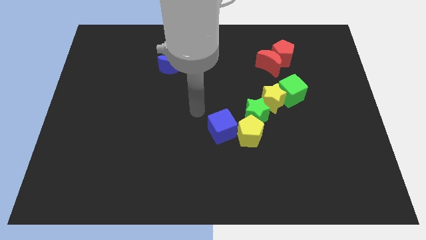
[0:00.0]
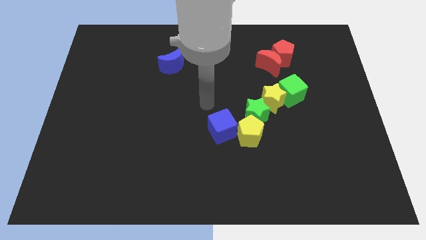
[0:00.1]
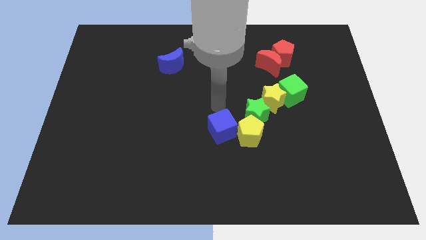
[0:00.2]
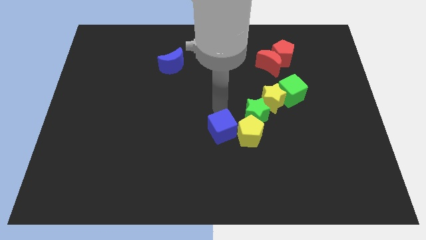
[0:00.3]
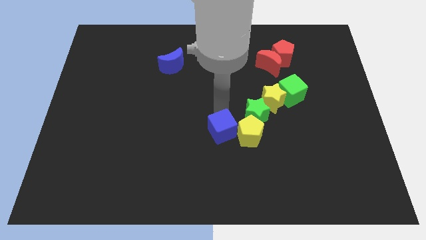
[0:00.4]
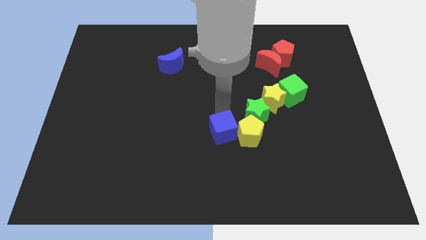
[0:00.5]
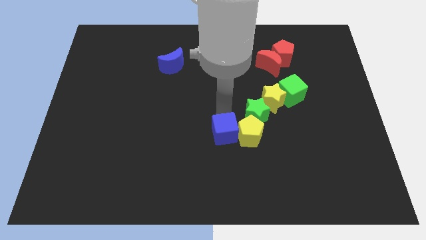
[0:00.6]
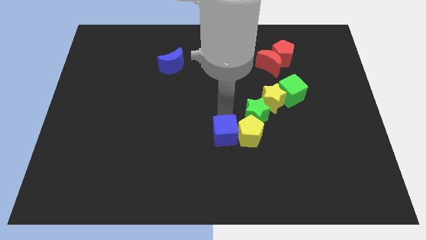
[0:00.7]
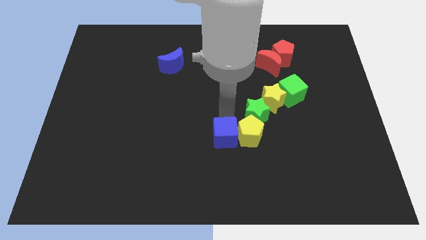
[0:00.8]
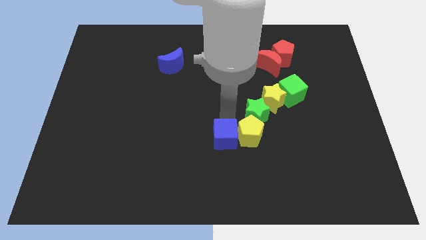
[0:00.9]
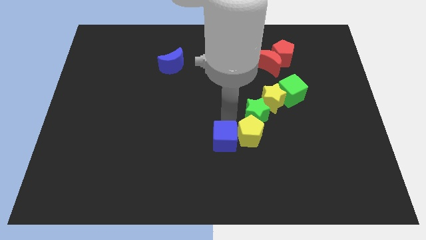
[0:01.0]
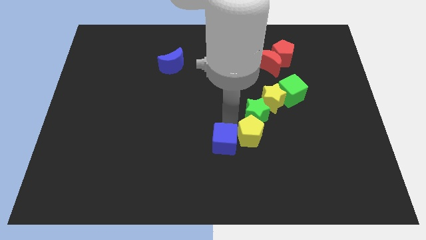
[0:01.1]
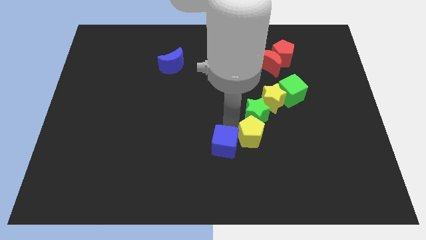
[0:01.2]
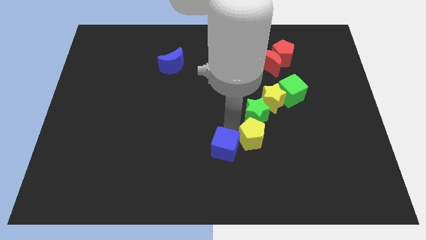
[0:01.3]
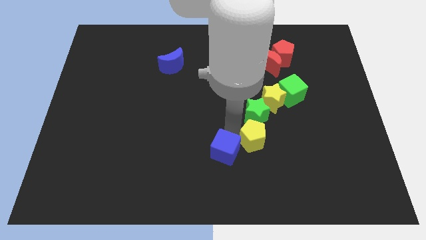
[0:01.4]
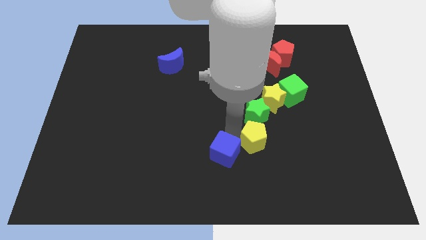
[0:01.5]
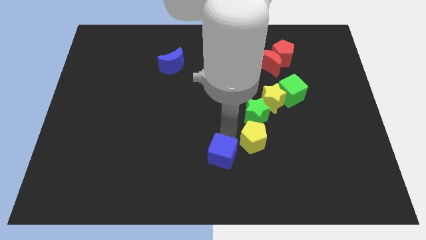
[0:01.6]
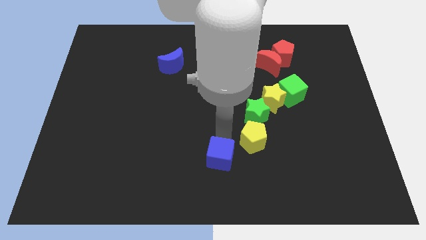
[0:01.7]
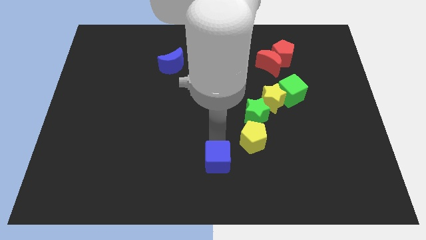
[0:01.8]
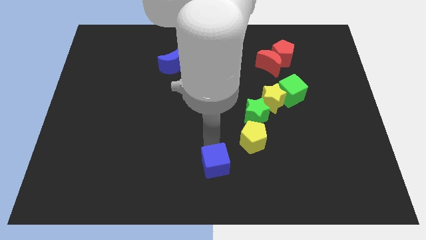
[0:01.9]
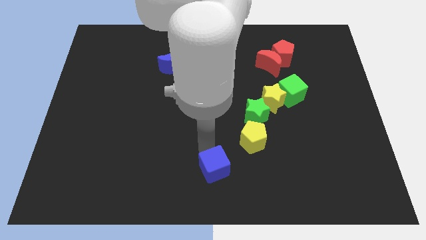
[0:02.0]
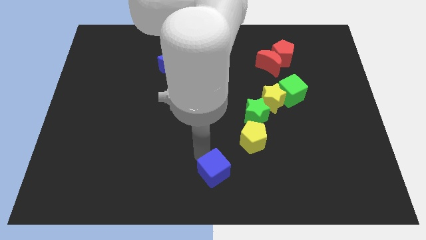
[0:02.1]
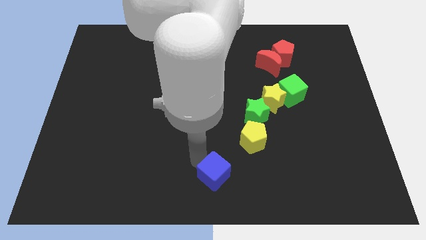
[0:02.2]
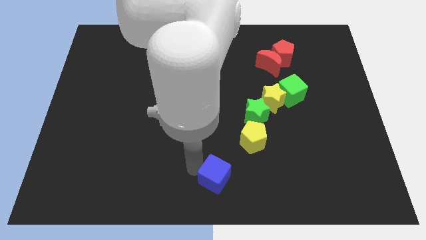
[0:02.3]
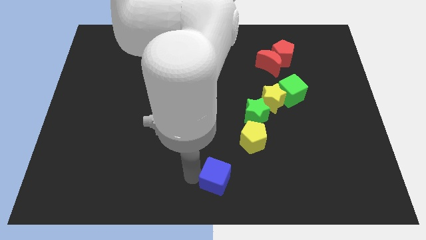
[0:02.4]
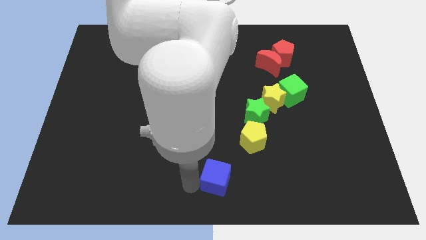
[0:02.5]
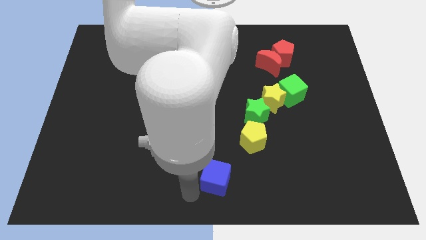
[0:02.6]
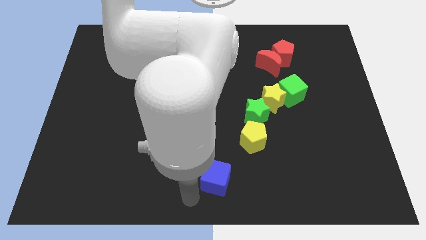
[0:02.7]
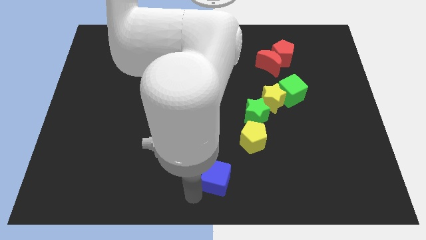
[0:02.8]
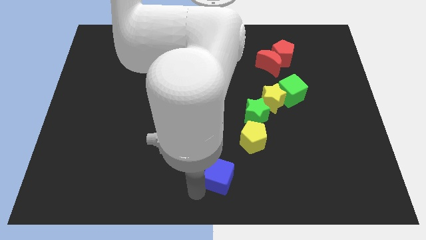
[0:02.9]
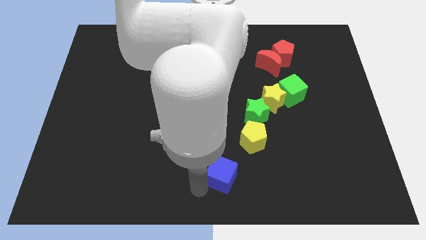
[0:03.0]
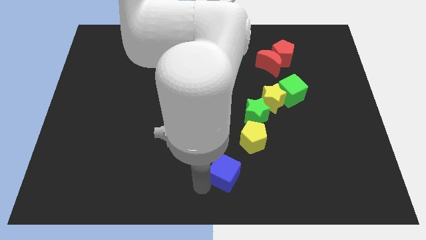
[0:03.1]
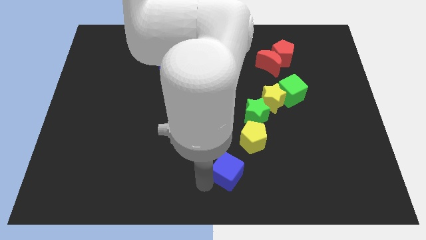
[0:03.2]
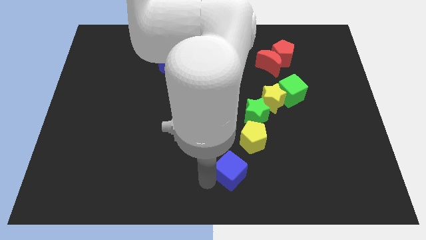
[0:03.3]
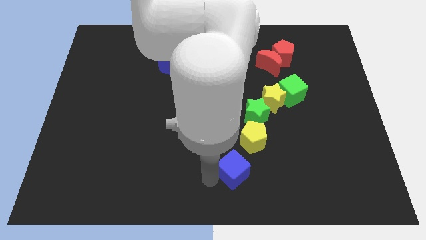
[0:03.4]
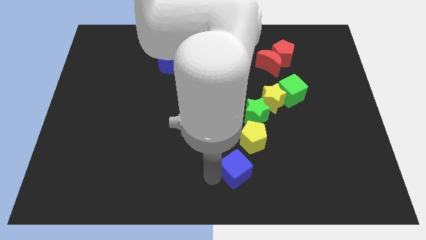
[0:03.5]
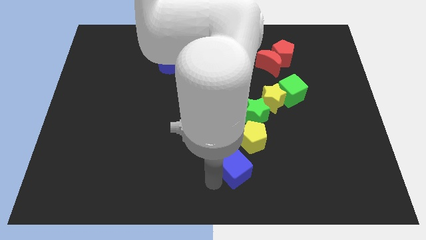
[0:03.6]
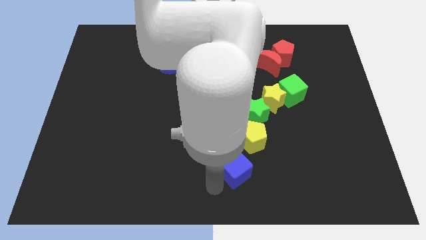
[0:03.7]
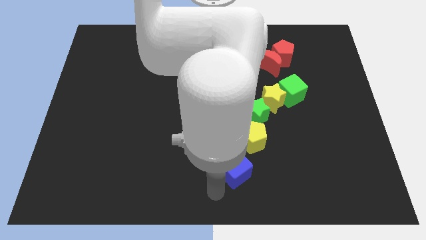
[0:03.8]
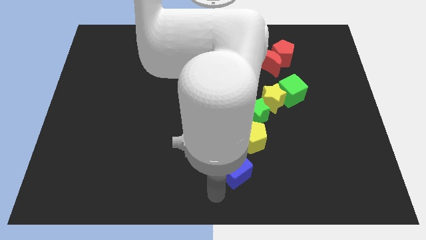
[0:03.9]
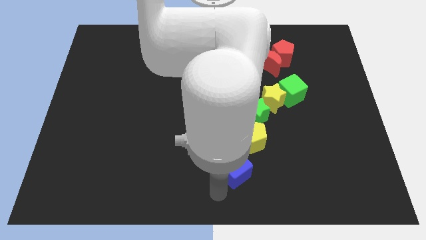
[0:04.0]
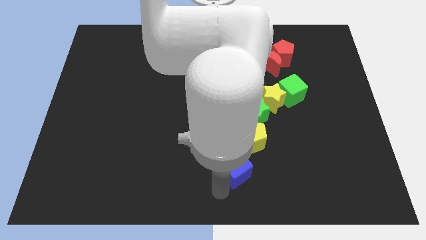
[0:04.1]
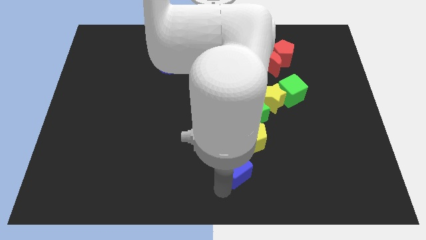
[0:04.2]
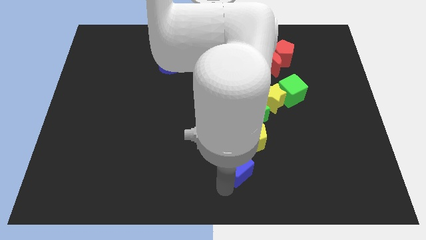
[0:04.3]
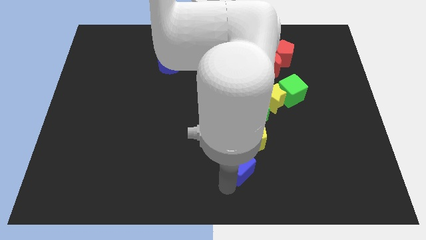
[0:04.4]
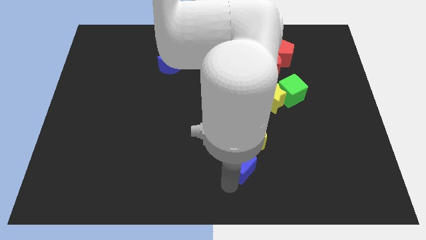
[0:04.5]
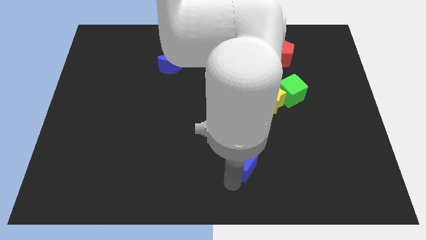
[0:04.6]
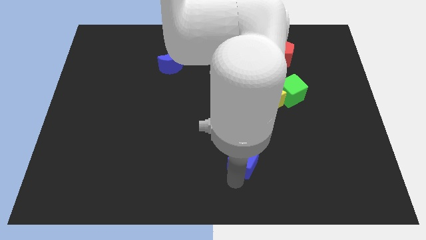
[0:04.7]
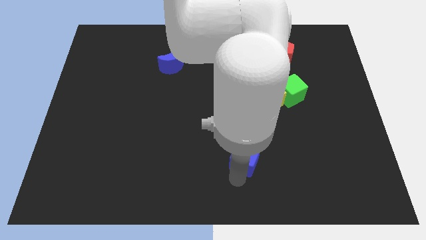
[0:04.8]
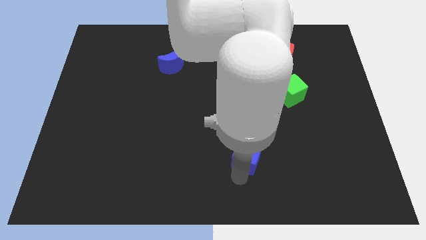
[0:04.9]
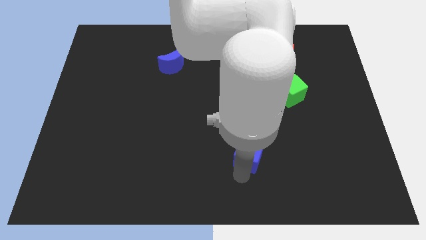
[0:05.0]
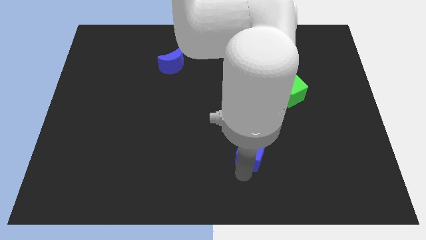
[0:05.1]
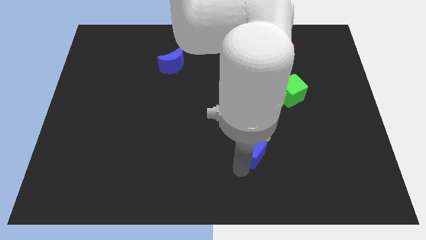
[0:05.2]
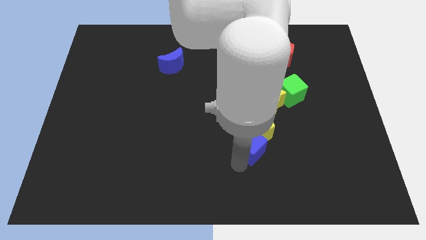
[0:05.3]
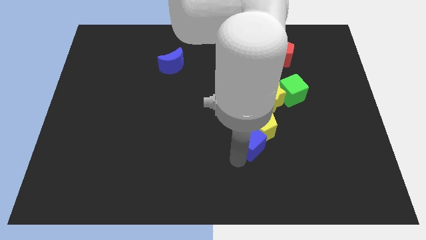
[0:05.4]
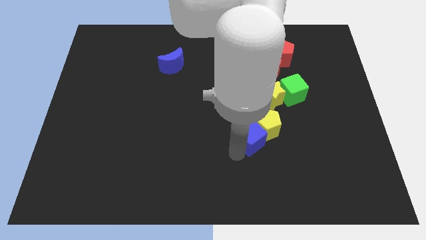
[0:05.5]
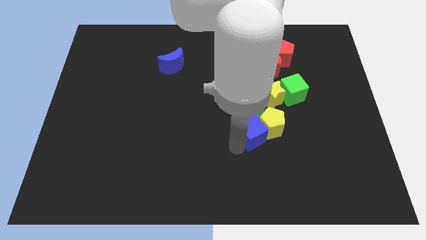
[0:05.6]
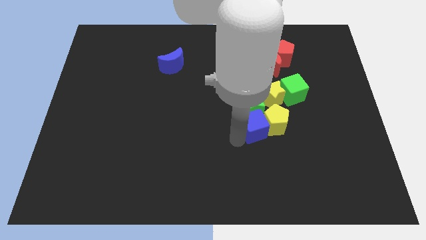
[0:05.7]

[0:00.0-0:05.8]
slightly push the blue cube right

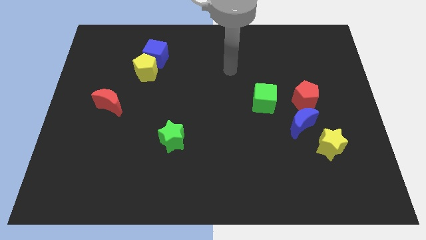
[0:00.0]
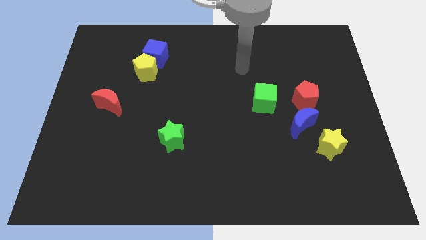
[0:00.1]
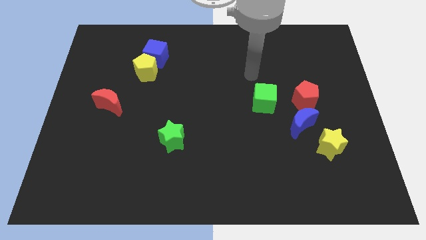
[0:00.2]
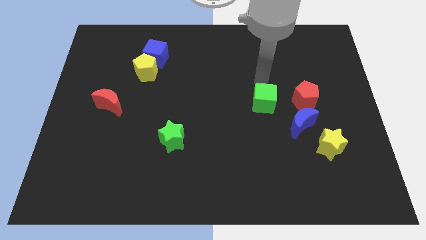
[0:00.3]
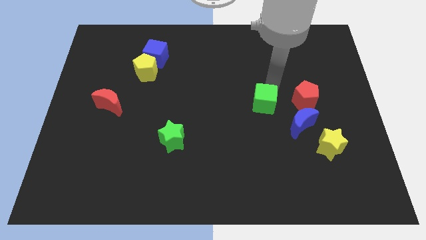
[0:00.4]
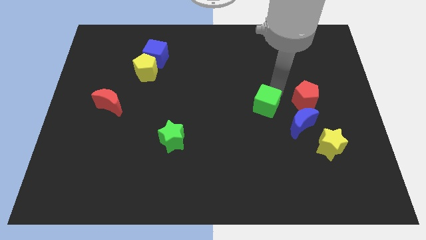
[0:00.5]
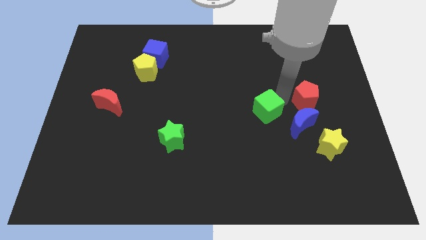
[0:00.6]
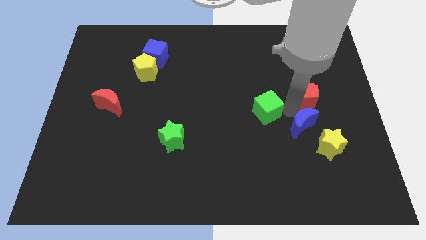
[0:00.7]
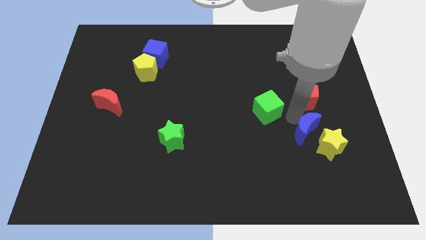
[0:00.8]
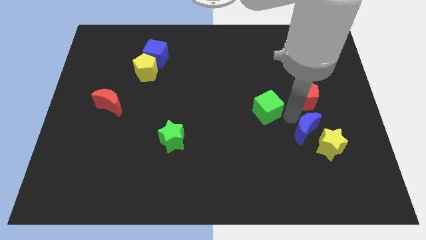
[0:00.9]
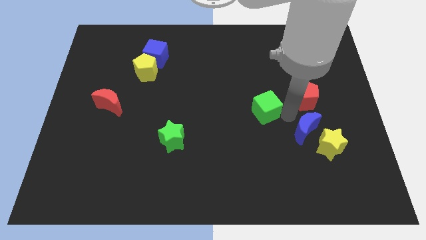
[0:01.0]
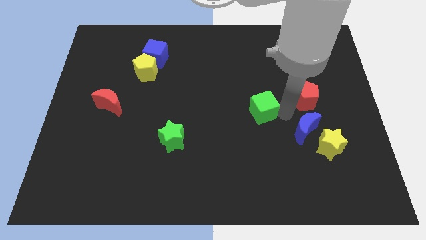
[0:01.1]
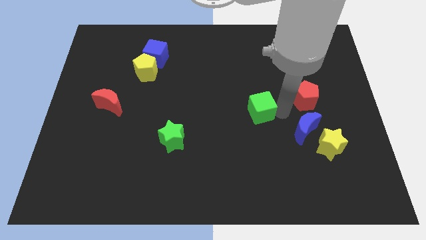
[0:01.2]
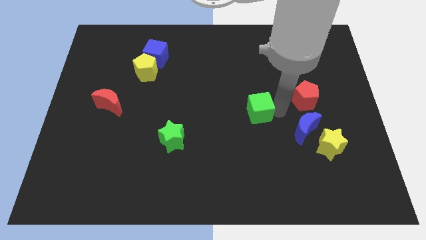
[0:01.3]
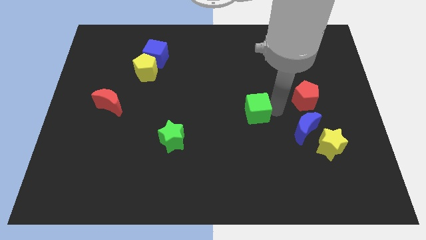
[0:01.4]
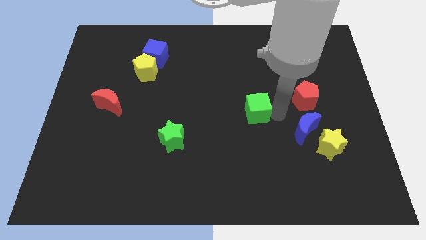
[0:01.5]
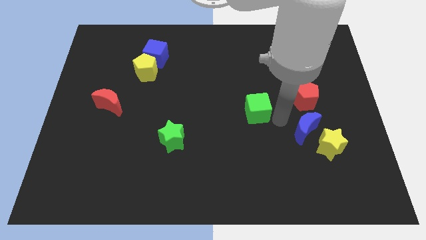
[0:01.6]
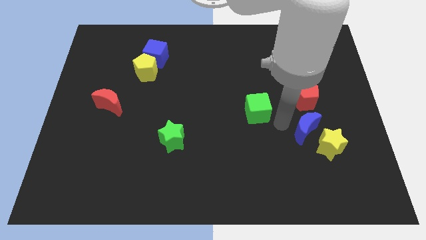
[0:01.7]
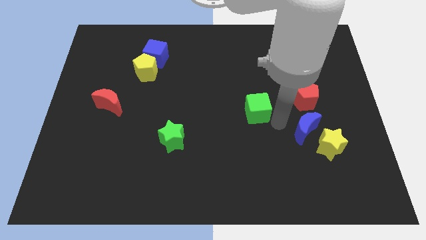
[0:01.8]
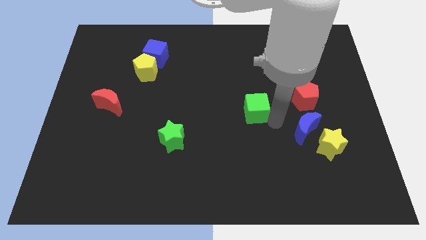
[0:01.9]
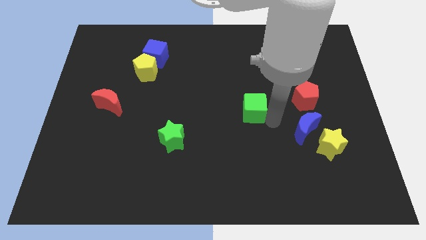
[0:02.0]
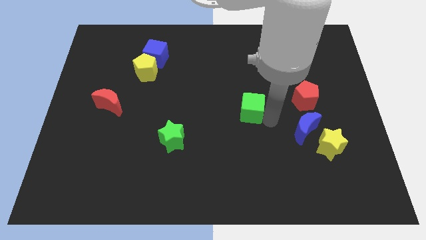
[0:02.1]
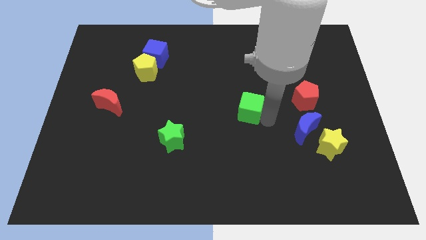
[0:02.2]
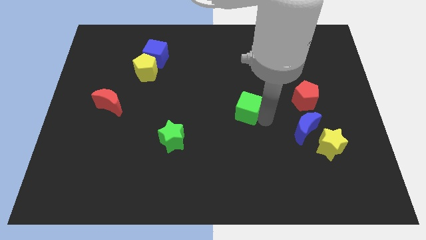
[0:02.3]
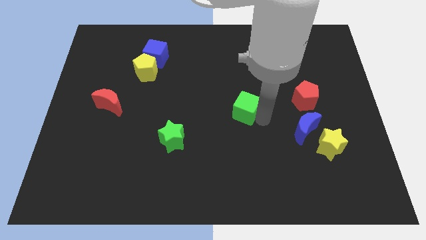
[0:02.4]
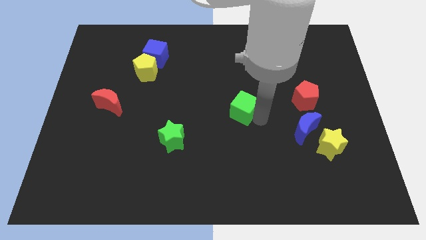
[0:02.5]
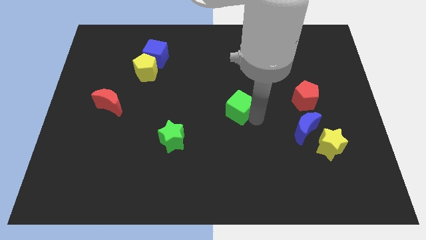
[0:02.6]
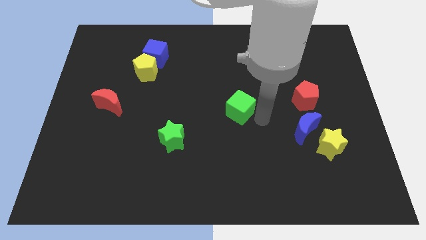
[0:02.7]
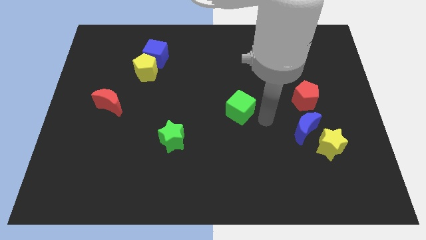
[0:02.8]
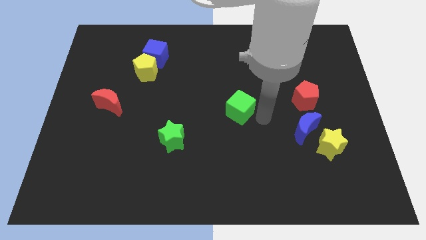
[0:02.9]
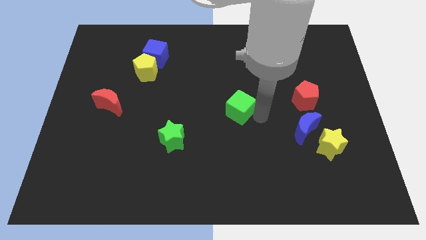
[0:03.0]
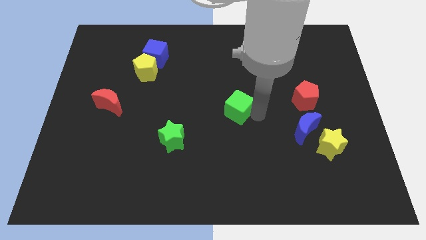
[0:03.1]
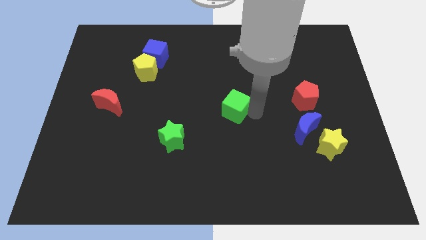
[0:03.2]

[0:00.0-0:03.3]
push the green cube a bit to the left
